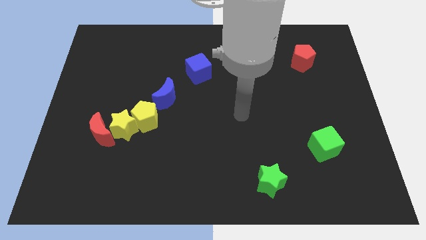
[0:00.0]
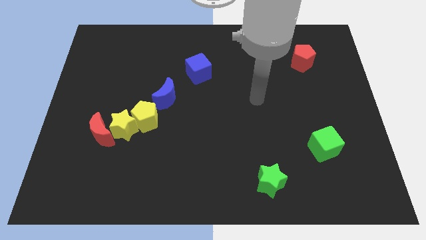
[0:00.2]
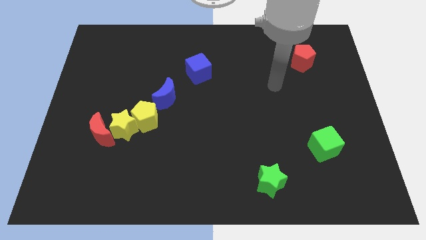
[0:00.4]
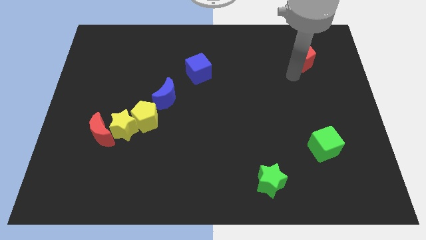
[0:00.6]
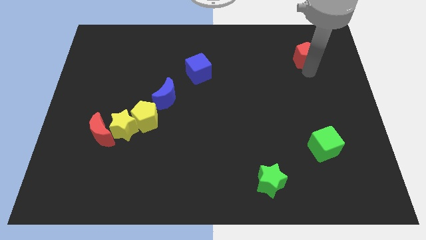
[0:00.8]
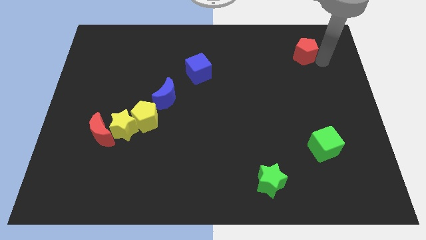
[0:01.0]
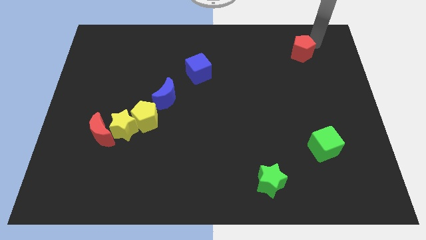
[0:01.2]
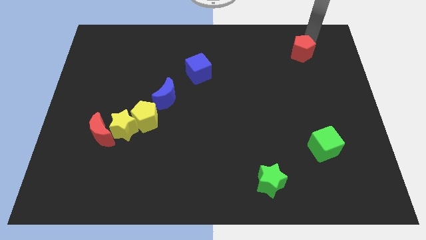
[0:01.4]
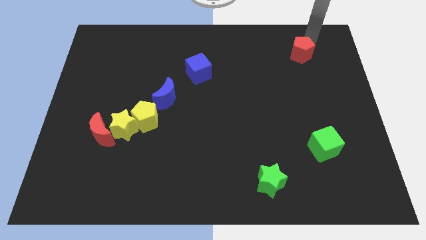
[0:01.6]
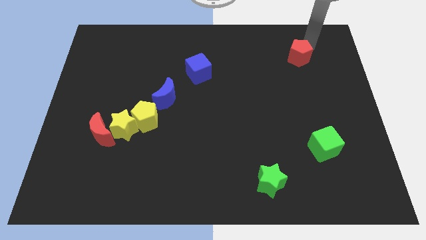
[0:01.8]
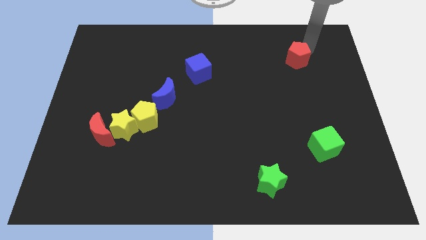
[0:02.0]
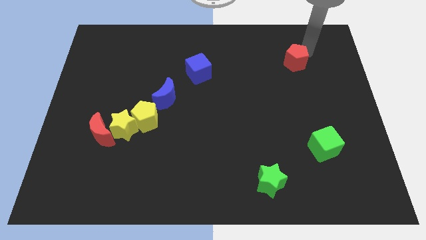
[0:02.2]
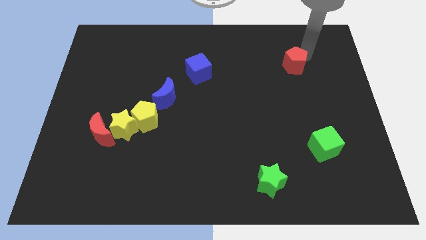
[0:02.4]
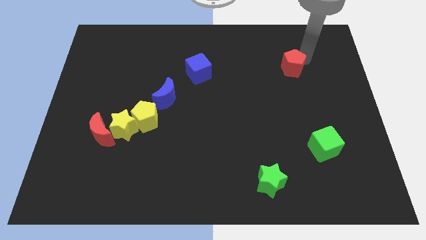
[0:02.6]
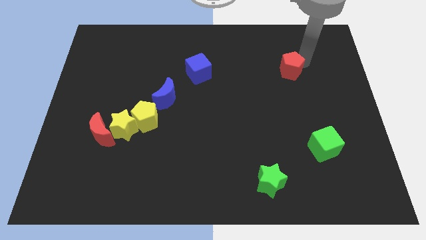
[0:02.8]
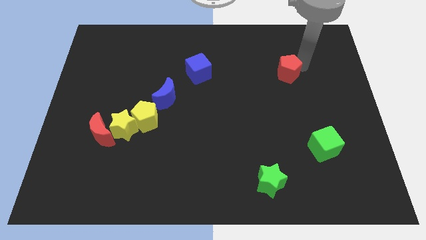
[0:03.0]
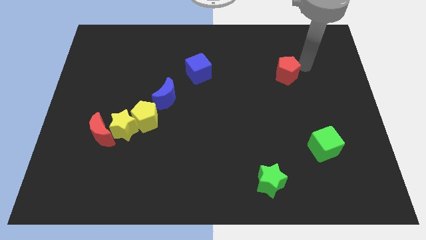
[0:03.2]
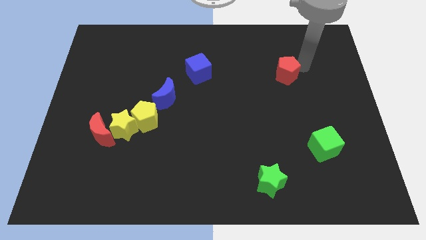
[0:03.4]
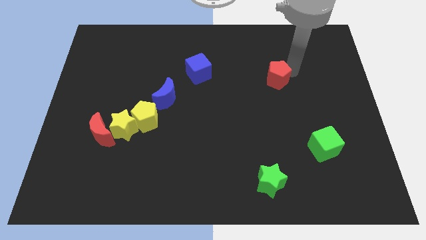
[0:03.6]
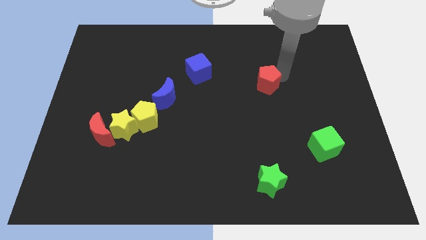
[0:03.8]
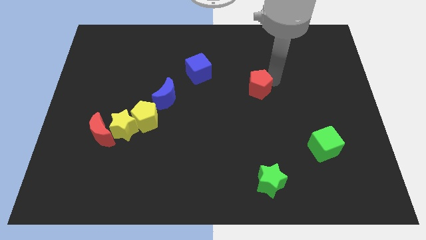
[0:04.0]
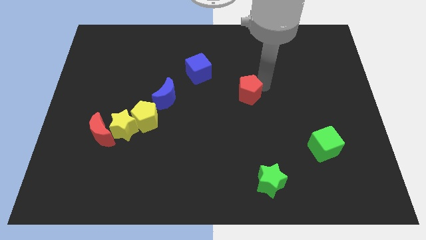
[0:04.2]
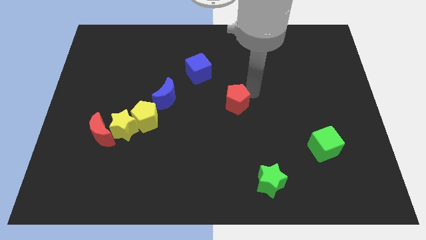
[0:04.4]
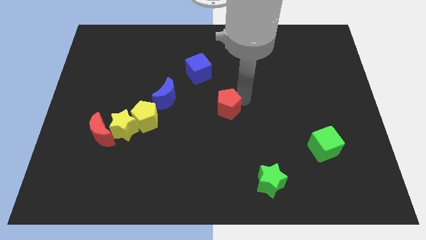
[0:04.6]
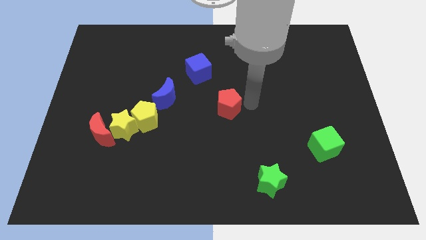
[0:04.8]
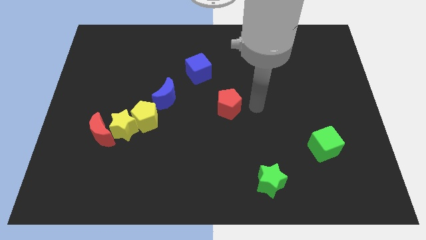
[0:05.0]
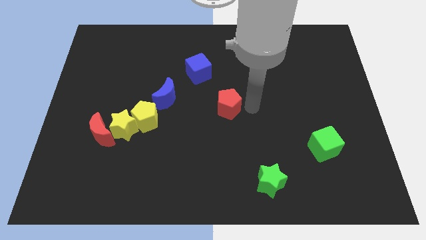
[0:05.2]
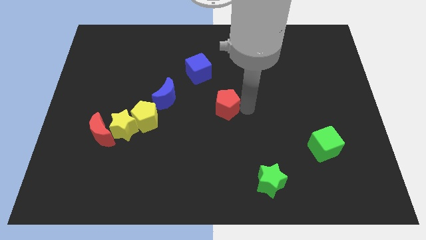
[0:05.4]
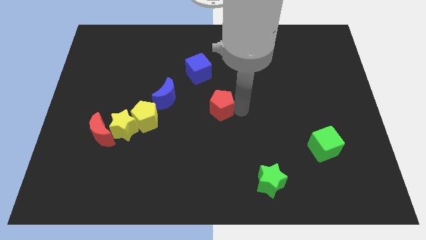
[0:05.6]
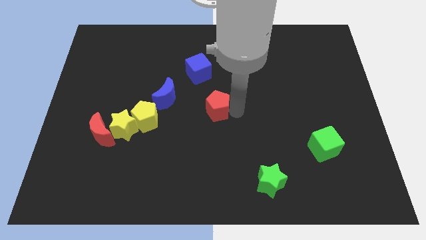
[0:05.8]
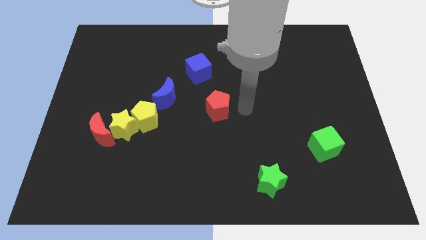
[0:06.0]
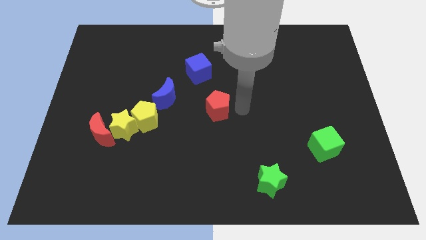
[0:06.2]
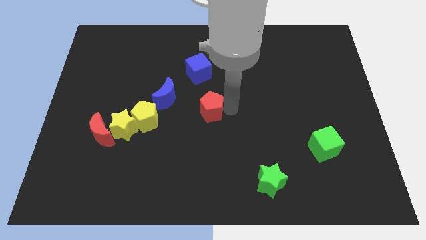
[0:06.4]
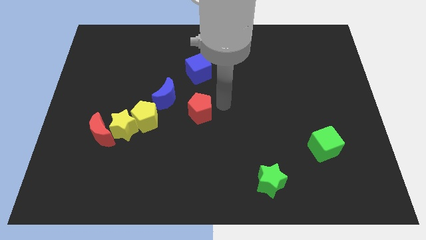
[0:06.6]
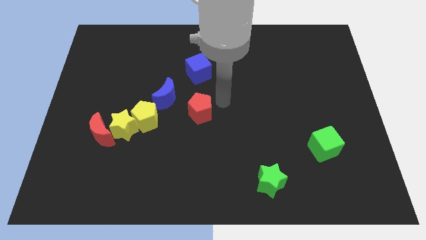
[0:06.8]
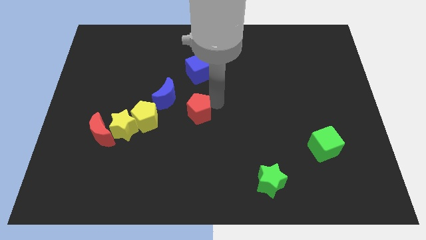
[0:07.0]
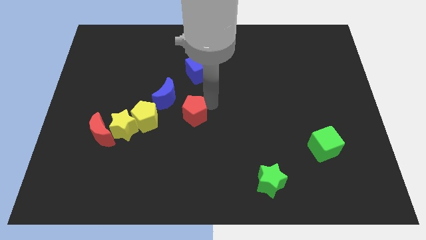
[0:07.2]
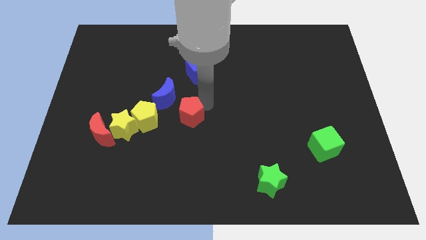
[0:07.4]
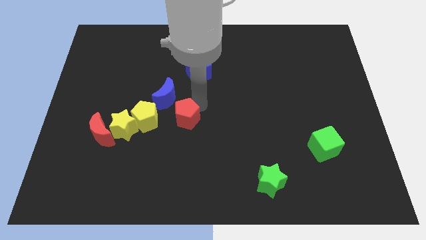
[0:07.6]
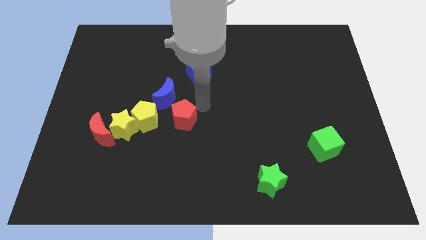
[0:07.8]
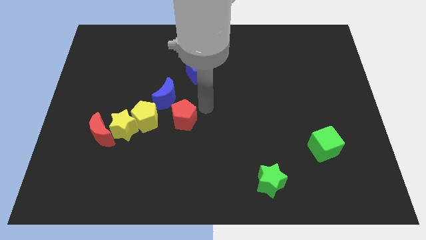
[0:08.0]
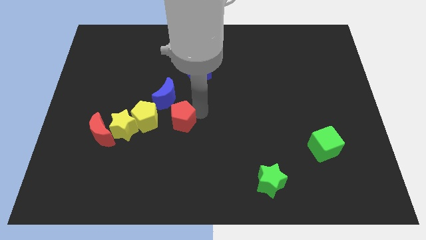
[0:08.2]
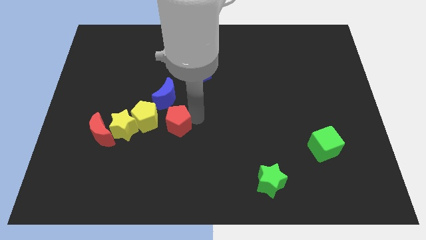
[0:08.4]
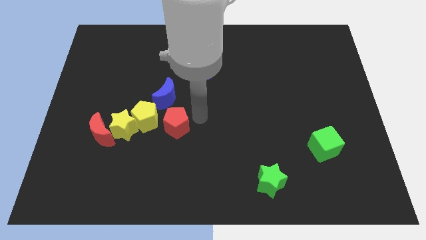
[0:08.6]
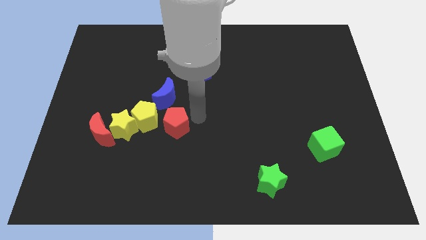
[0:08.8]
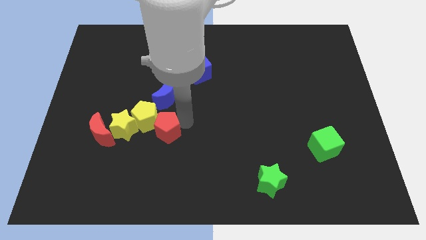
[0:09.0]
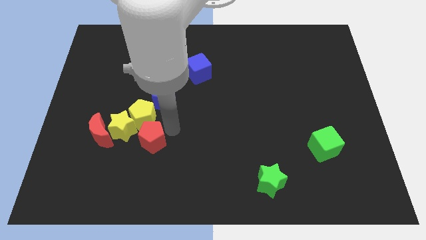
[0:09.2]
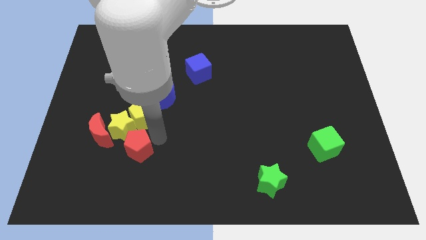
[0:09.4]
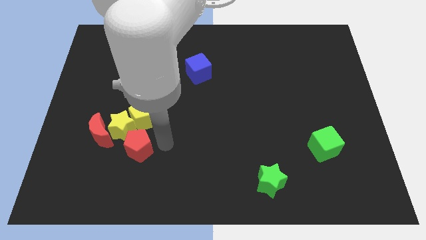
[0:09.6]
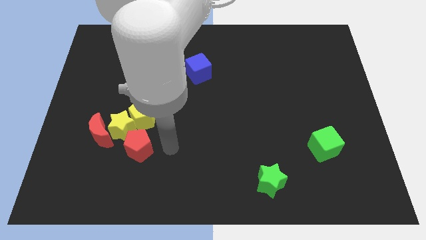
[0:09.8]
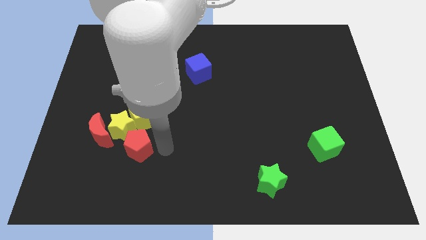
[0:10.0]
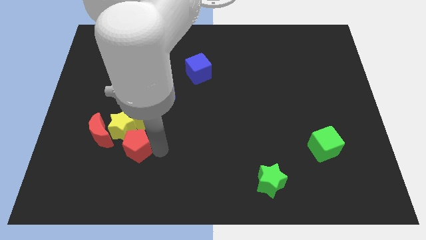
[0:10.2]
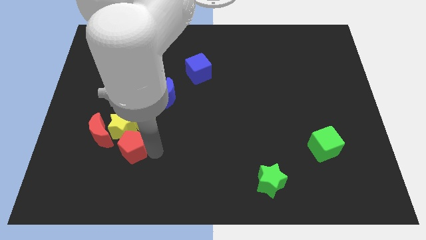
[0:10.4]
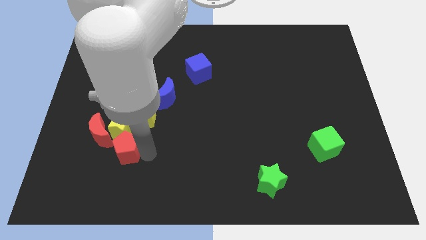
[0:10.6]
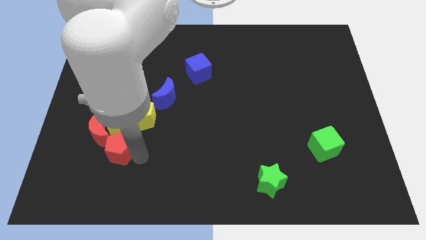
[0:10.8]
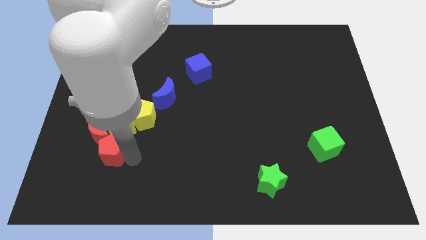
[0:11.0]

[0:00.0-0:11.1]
move the red pentagon to the red moon

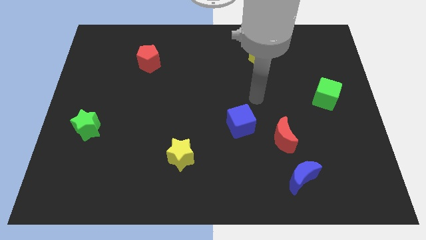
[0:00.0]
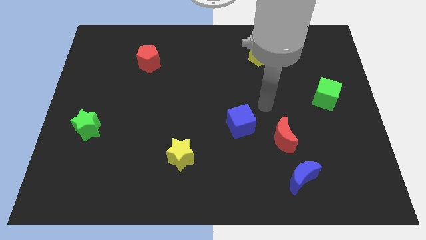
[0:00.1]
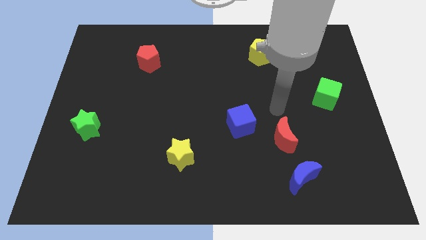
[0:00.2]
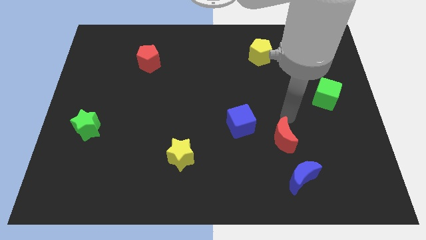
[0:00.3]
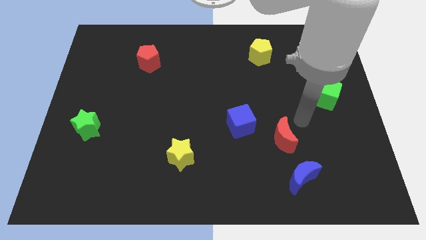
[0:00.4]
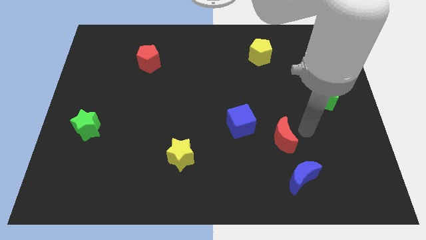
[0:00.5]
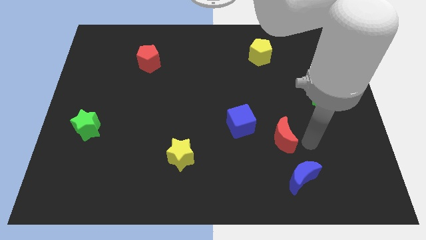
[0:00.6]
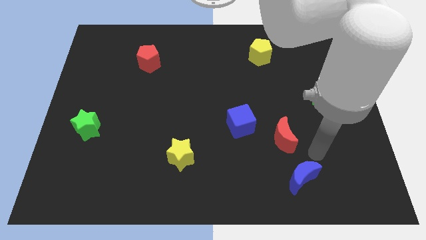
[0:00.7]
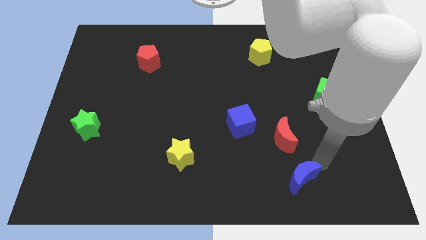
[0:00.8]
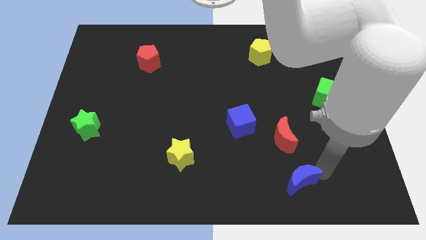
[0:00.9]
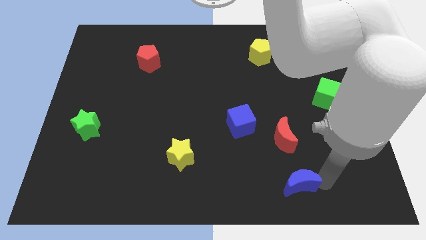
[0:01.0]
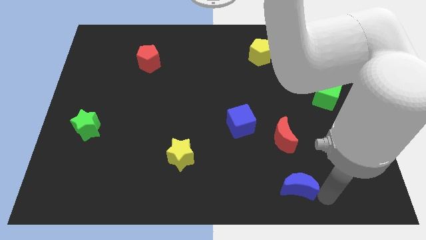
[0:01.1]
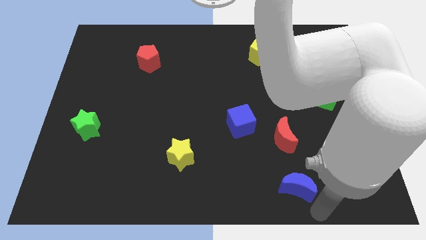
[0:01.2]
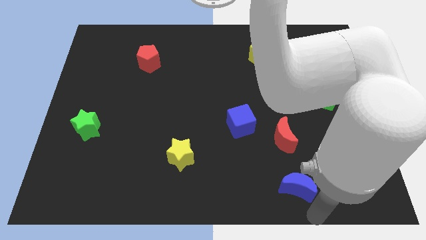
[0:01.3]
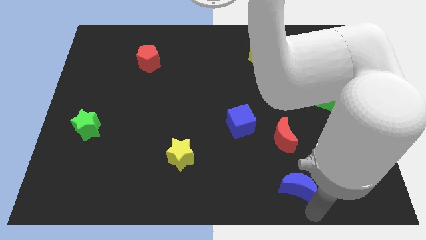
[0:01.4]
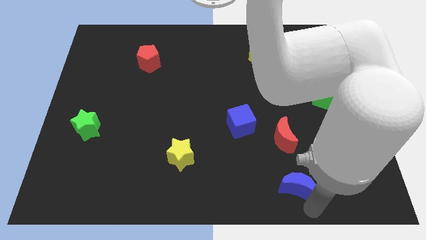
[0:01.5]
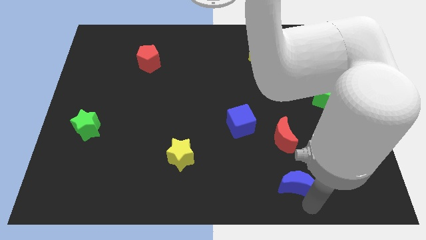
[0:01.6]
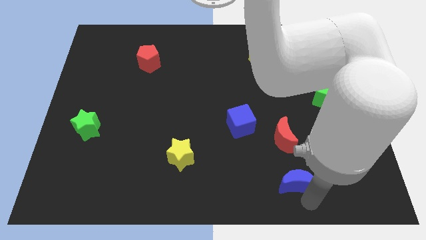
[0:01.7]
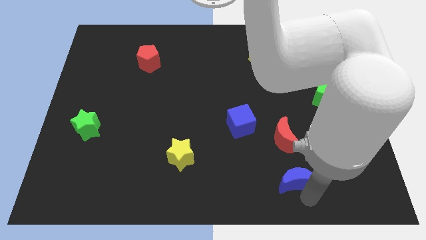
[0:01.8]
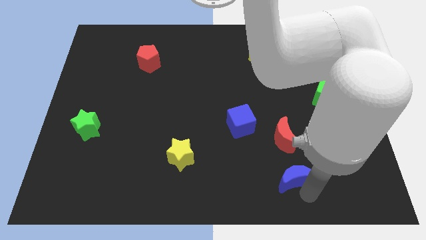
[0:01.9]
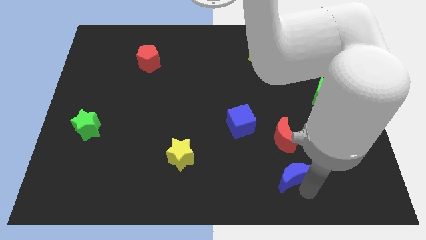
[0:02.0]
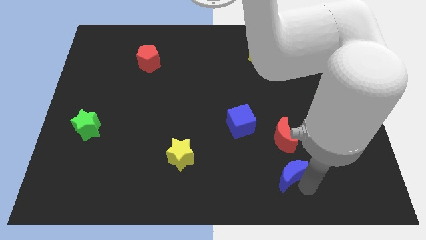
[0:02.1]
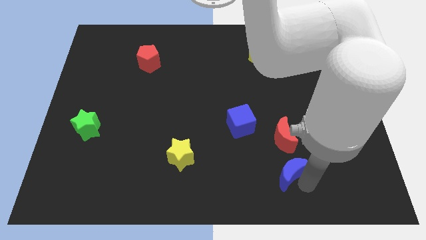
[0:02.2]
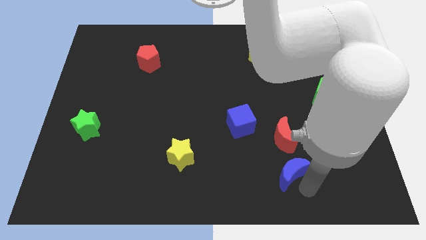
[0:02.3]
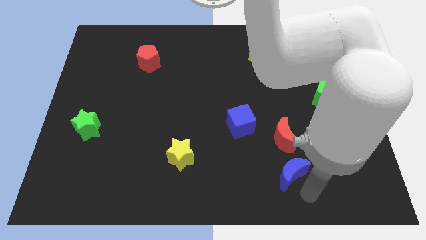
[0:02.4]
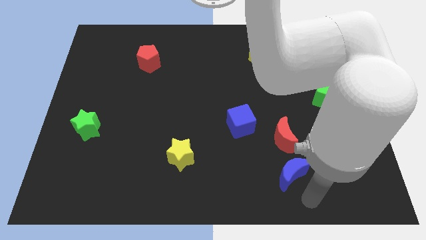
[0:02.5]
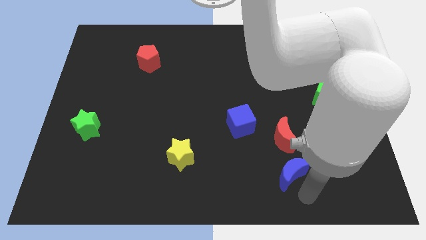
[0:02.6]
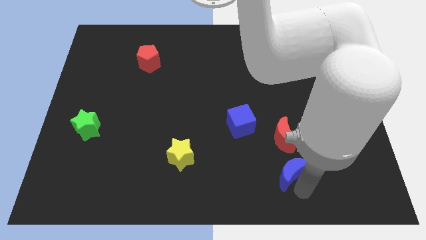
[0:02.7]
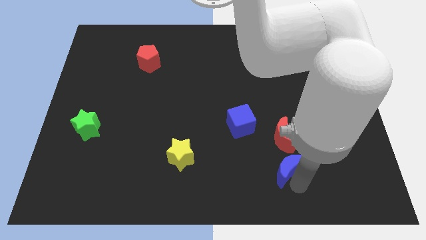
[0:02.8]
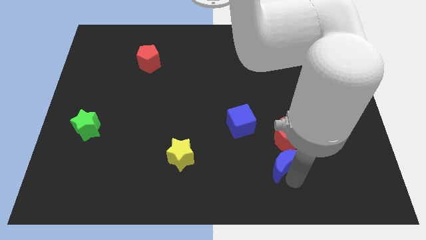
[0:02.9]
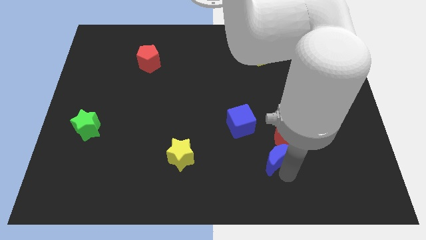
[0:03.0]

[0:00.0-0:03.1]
push the blue moon next to the red moon
